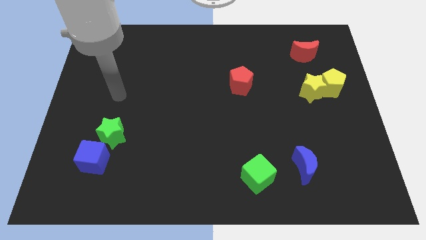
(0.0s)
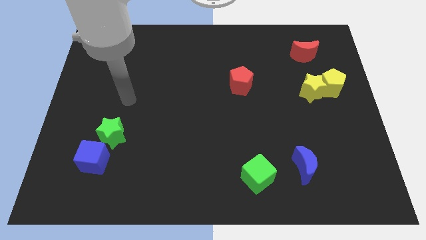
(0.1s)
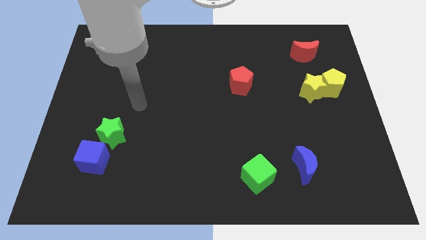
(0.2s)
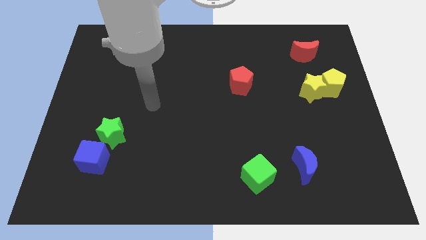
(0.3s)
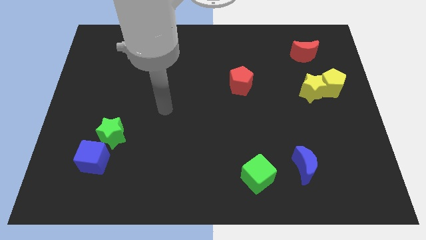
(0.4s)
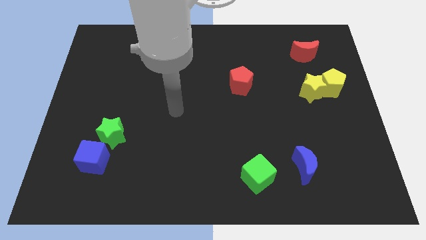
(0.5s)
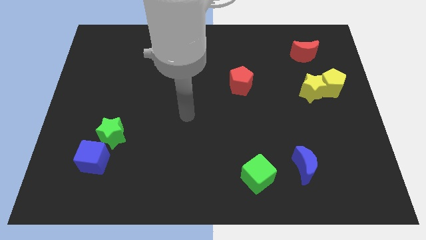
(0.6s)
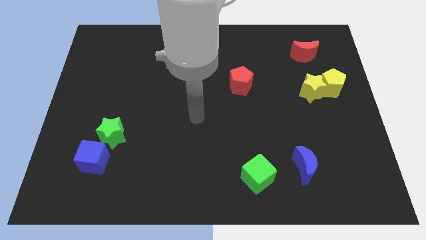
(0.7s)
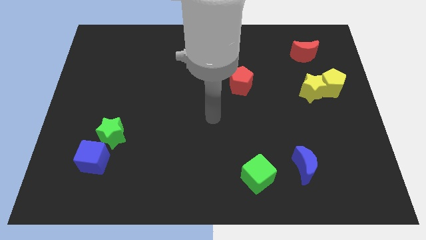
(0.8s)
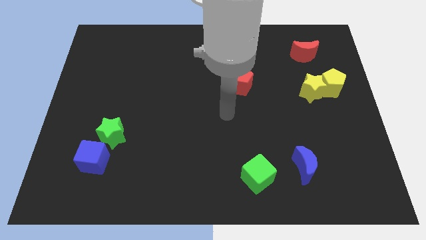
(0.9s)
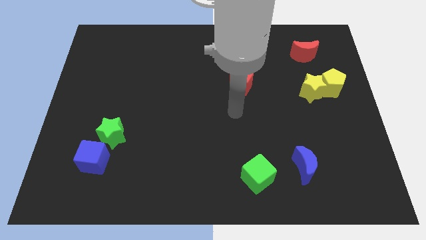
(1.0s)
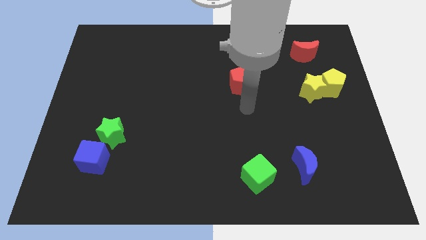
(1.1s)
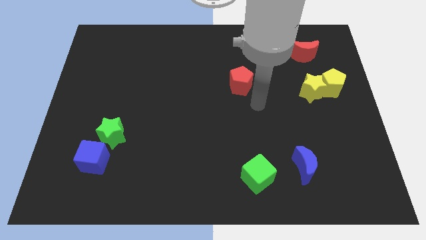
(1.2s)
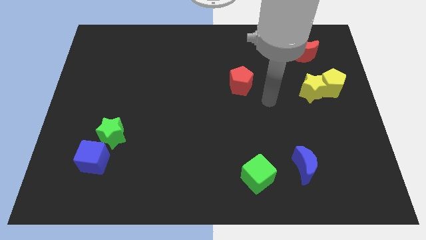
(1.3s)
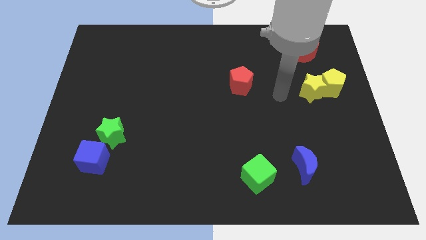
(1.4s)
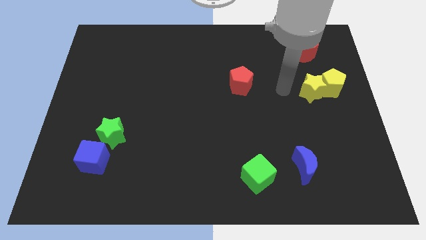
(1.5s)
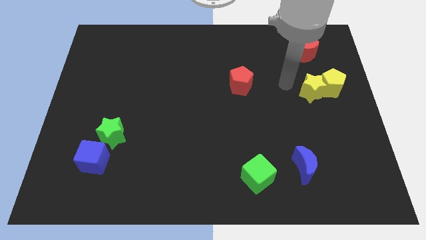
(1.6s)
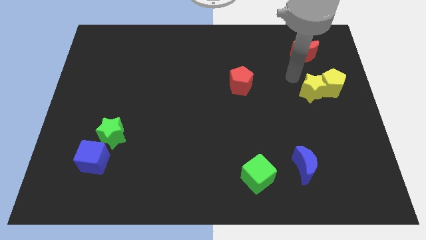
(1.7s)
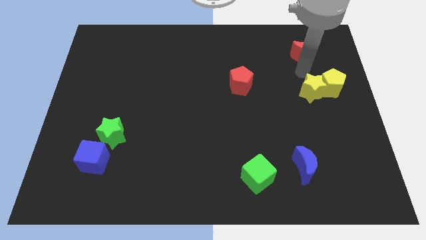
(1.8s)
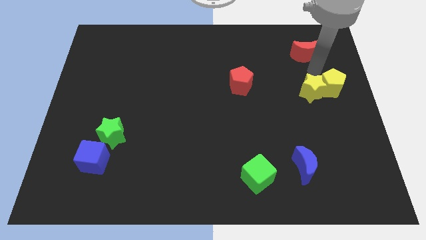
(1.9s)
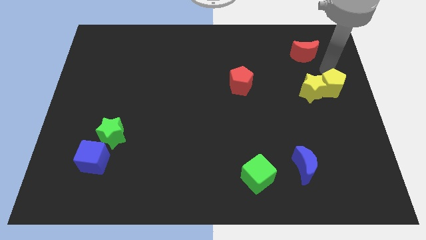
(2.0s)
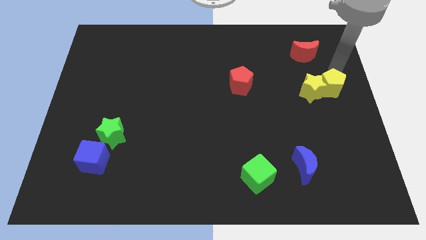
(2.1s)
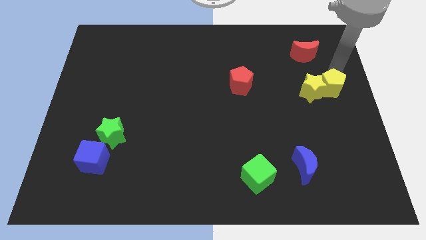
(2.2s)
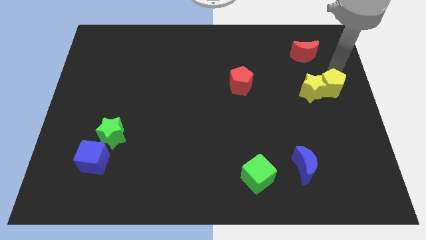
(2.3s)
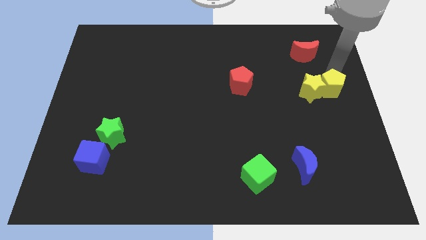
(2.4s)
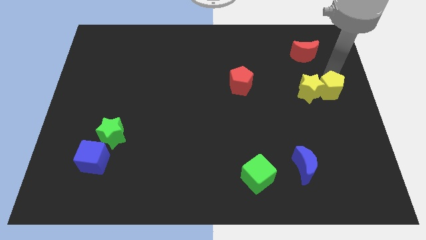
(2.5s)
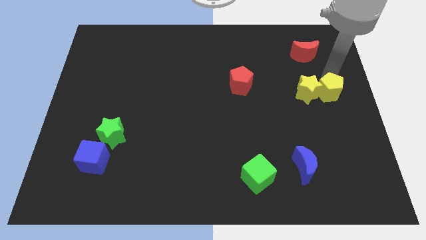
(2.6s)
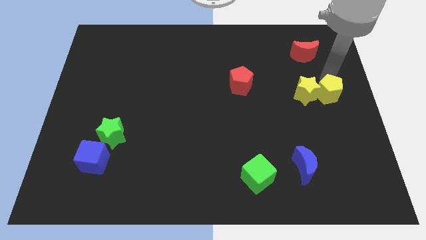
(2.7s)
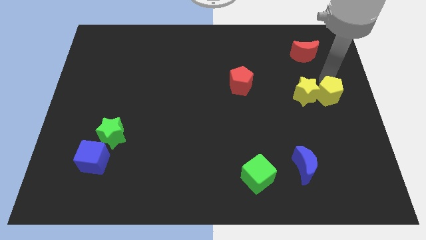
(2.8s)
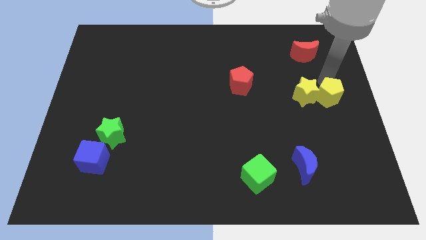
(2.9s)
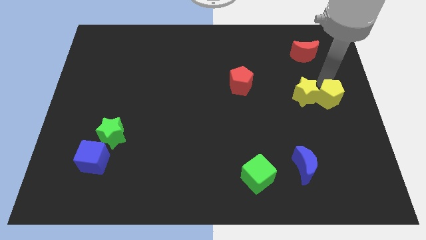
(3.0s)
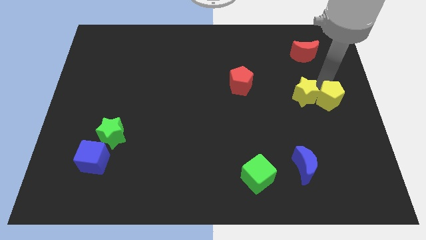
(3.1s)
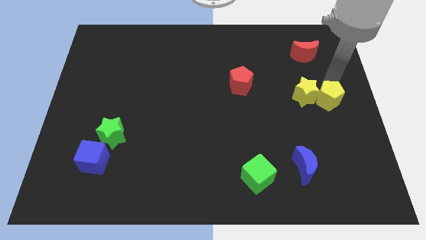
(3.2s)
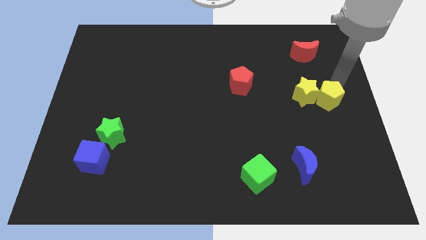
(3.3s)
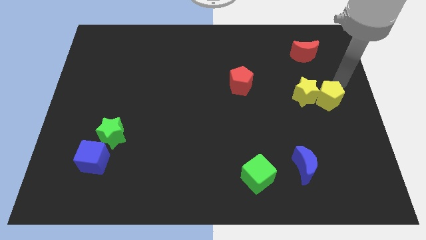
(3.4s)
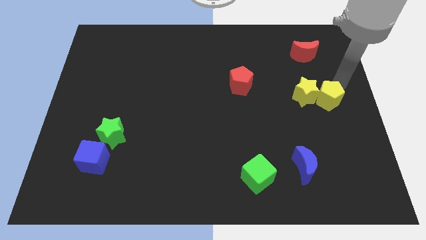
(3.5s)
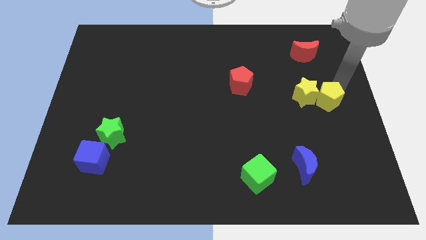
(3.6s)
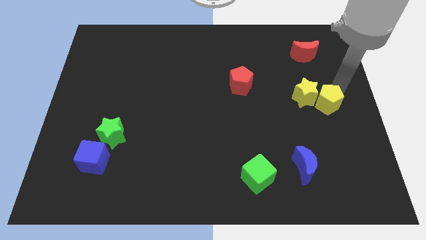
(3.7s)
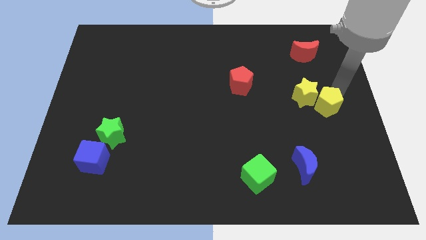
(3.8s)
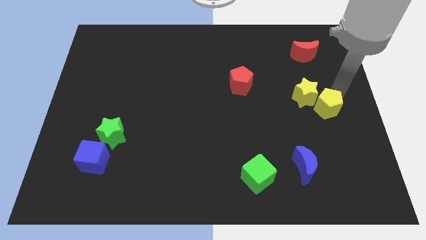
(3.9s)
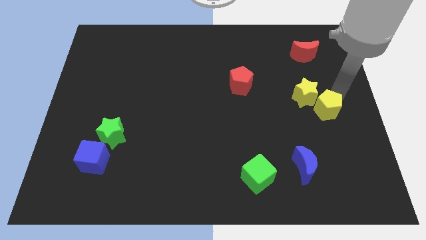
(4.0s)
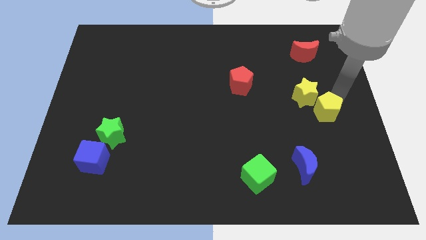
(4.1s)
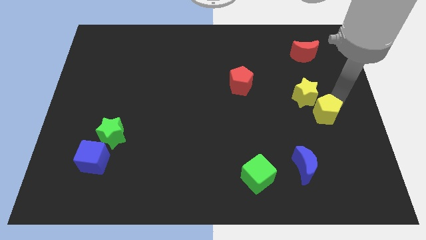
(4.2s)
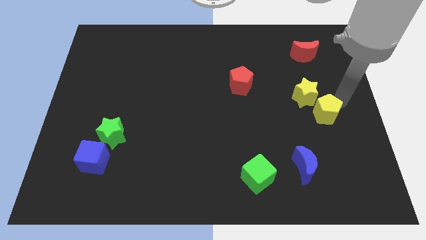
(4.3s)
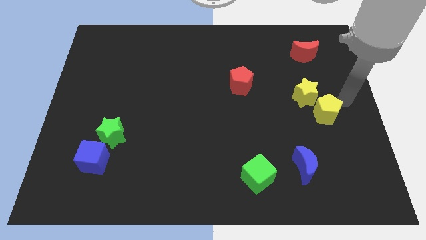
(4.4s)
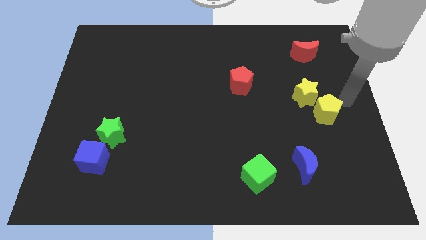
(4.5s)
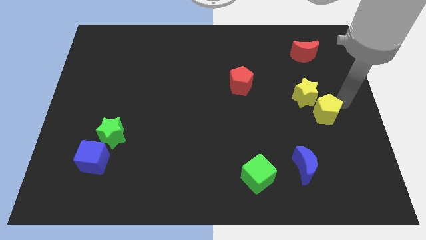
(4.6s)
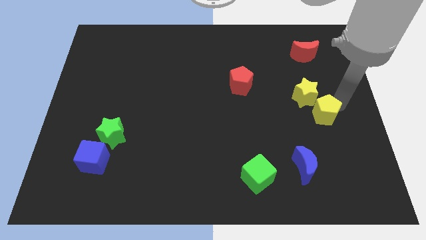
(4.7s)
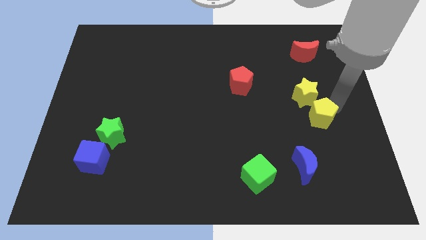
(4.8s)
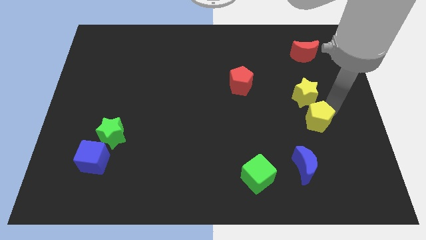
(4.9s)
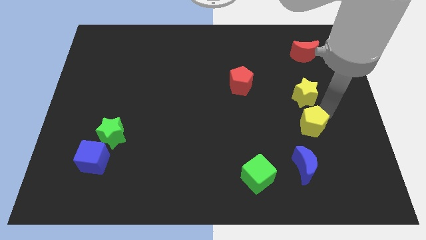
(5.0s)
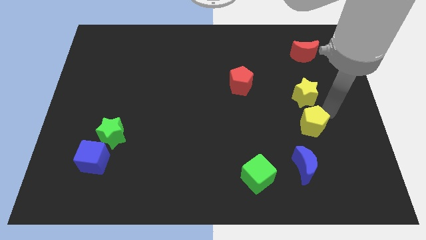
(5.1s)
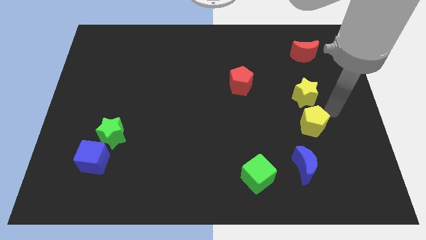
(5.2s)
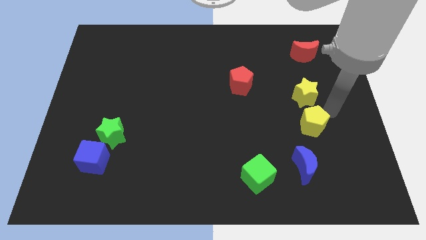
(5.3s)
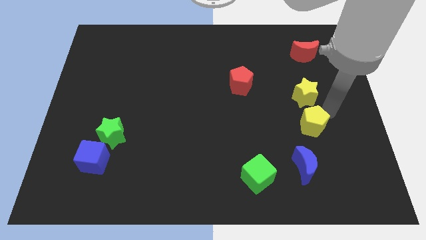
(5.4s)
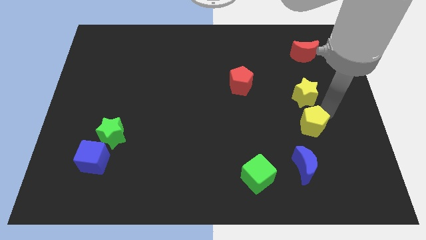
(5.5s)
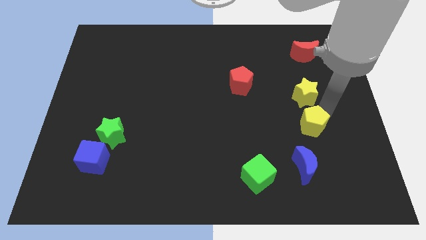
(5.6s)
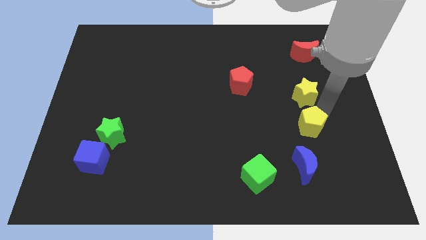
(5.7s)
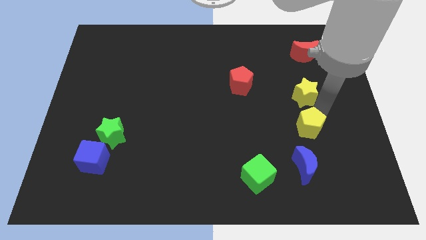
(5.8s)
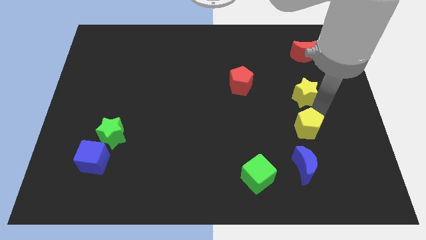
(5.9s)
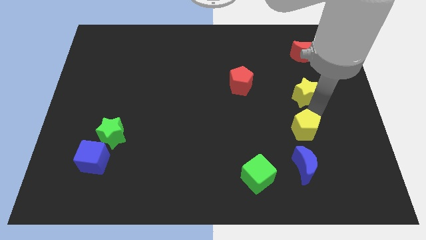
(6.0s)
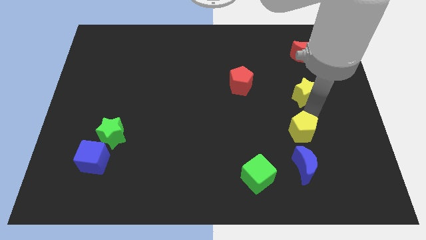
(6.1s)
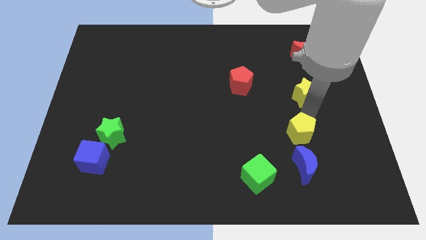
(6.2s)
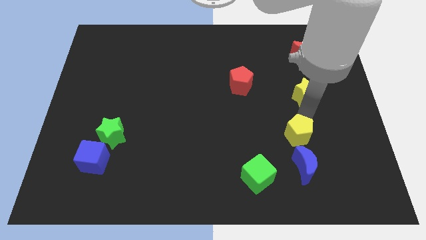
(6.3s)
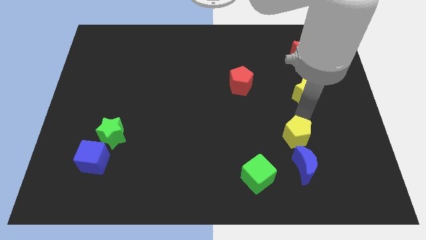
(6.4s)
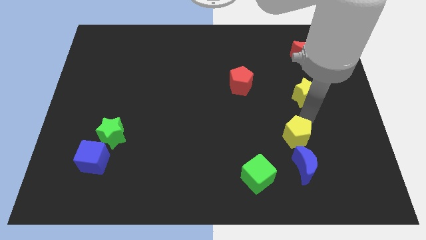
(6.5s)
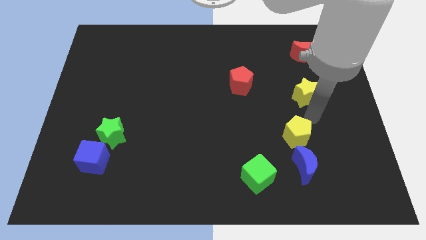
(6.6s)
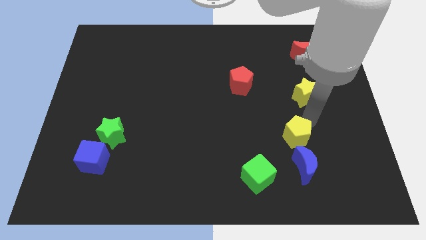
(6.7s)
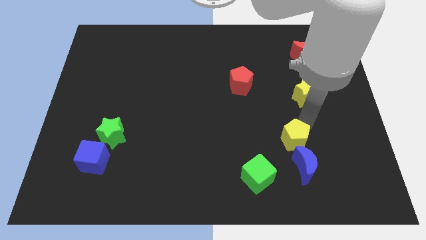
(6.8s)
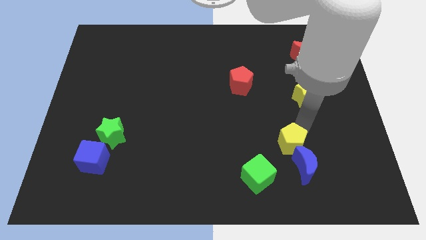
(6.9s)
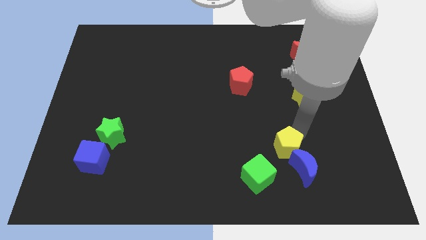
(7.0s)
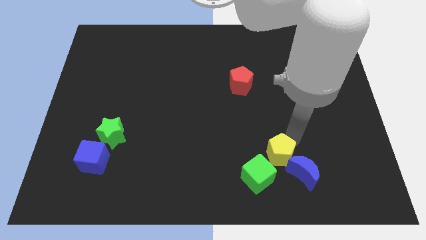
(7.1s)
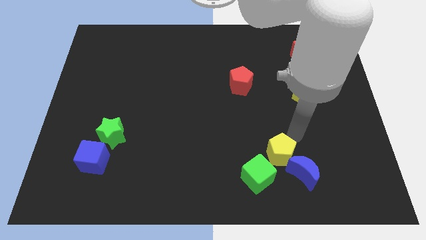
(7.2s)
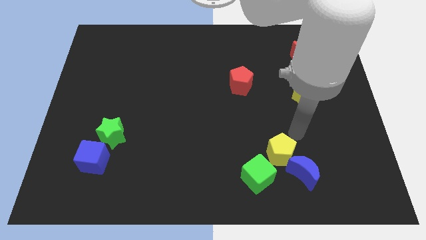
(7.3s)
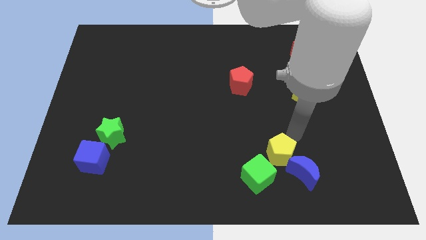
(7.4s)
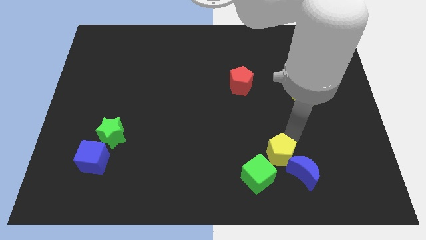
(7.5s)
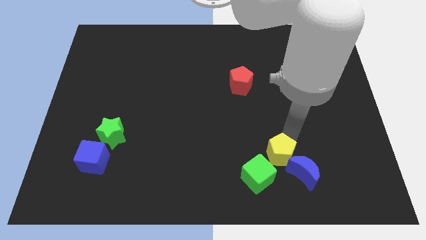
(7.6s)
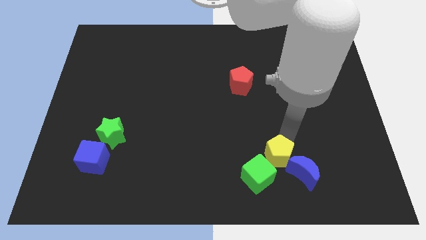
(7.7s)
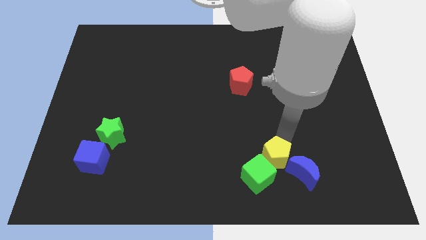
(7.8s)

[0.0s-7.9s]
push the yellow pentagon next to the green cube
